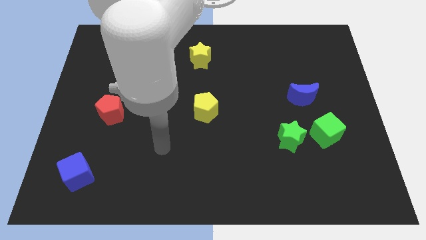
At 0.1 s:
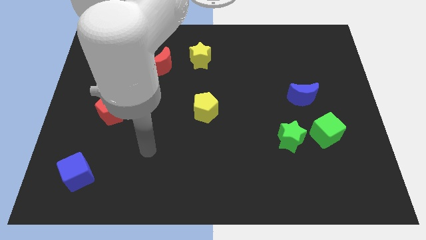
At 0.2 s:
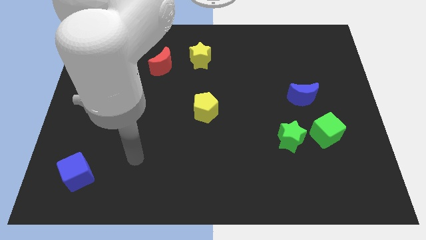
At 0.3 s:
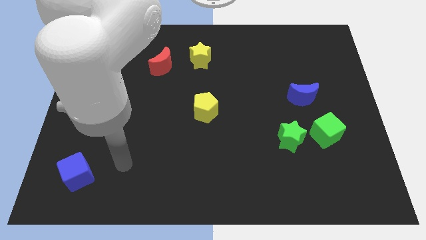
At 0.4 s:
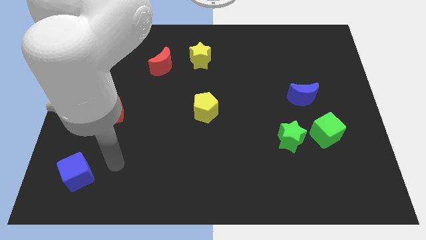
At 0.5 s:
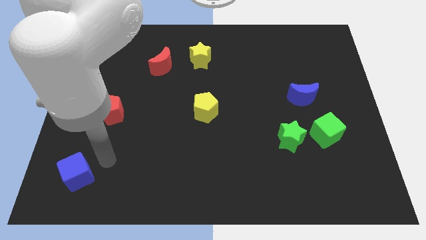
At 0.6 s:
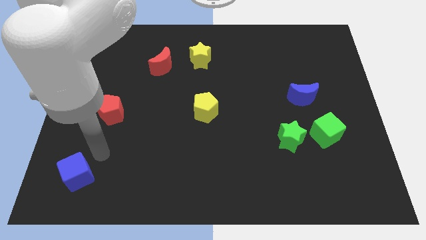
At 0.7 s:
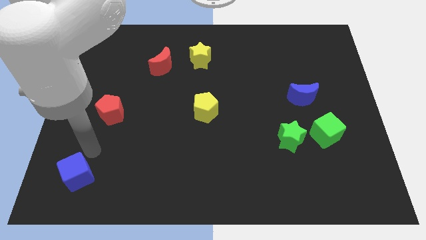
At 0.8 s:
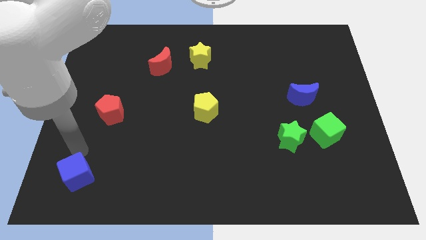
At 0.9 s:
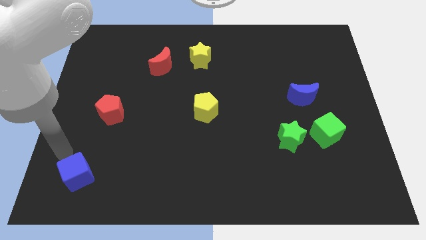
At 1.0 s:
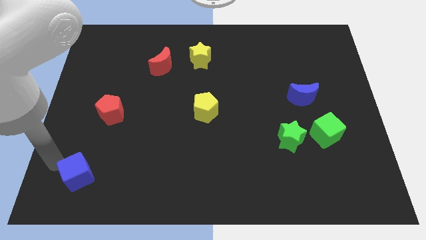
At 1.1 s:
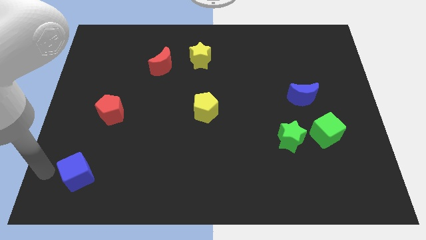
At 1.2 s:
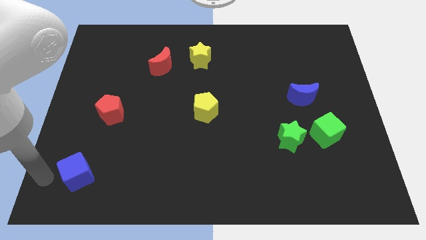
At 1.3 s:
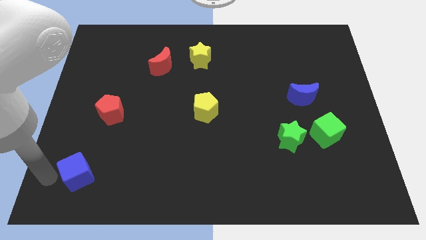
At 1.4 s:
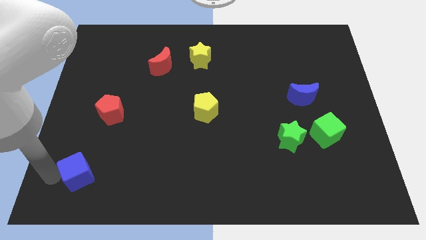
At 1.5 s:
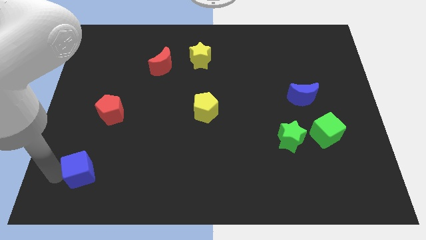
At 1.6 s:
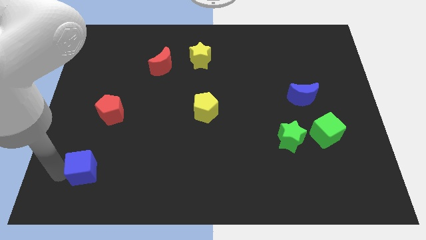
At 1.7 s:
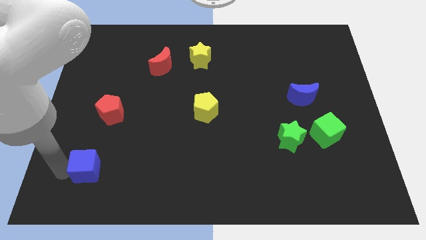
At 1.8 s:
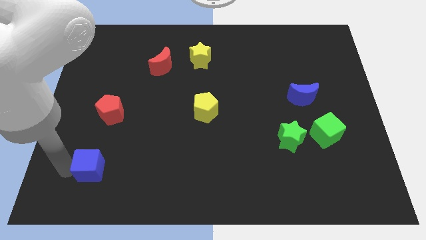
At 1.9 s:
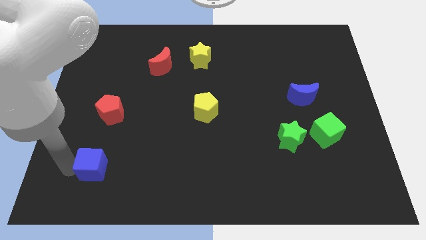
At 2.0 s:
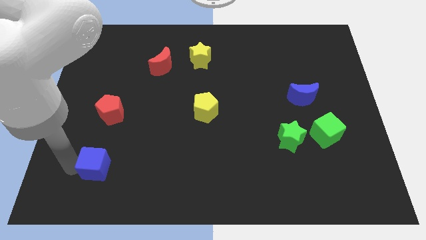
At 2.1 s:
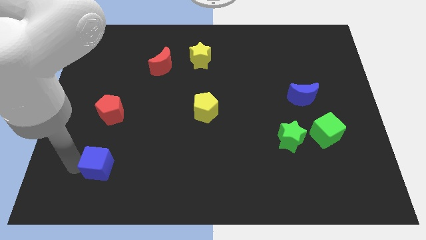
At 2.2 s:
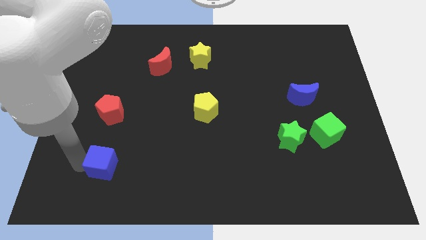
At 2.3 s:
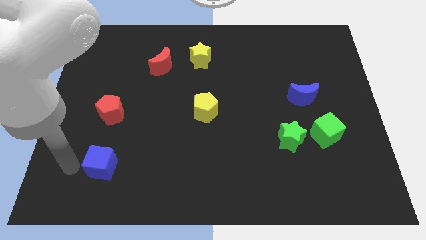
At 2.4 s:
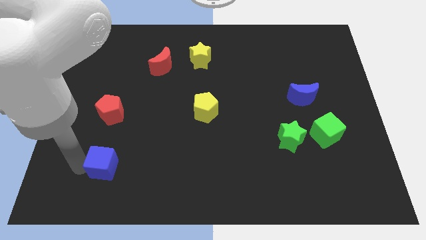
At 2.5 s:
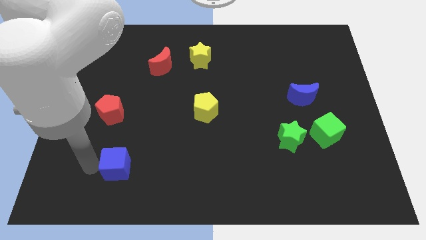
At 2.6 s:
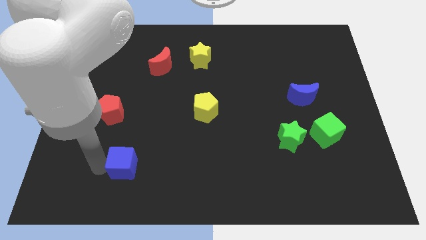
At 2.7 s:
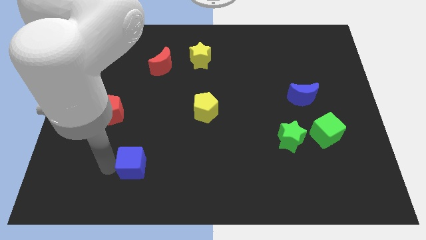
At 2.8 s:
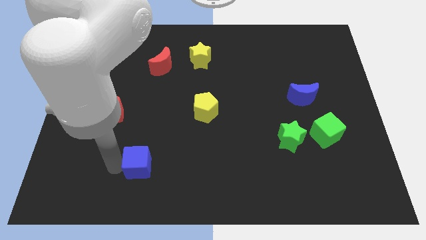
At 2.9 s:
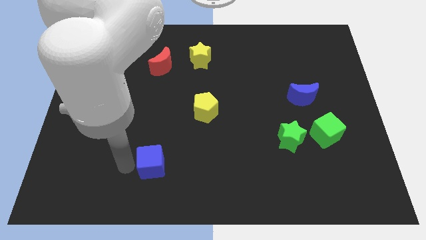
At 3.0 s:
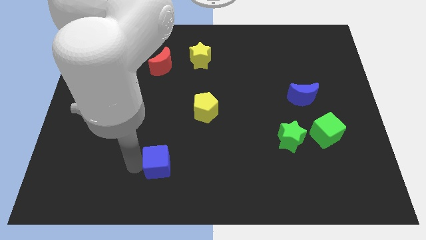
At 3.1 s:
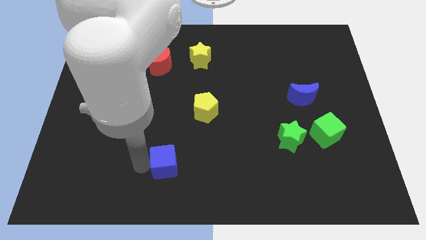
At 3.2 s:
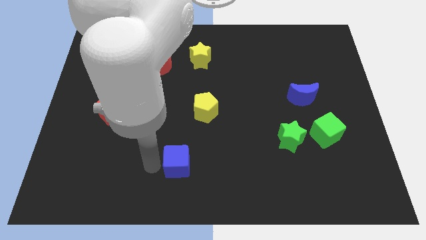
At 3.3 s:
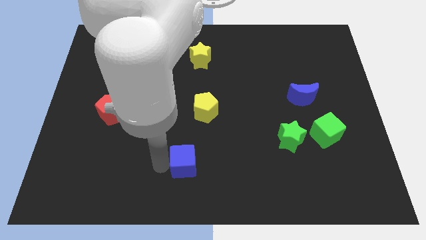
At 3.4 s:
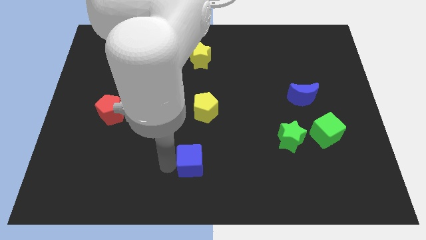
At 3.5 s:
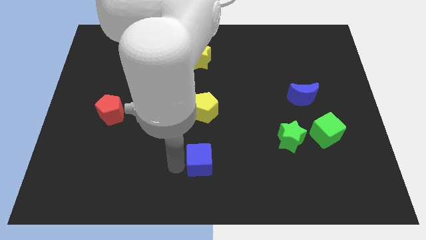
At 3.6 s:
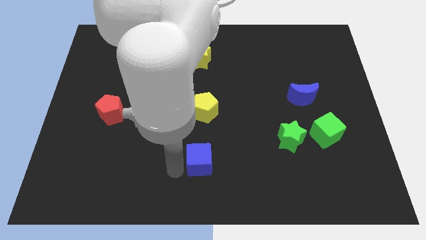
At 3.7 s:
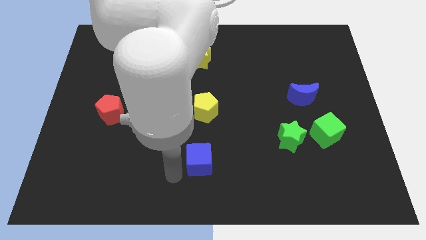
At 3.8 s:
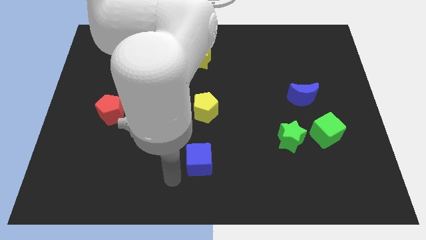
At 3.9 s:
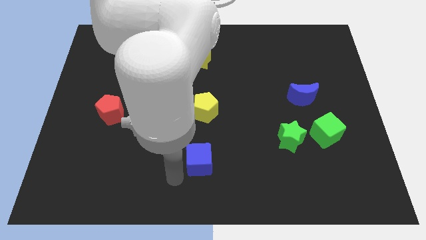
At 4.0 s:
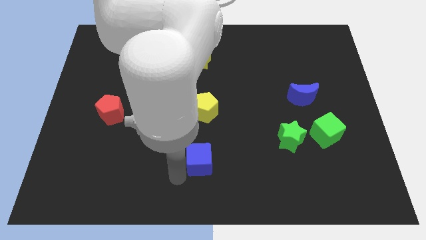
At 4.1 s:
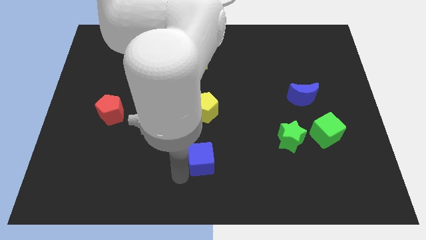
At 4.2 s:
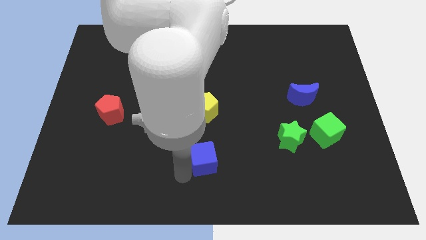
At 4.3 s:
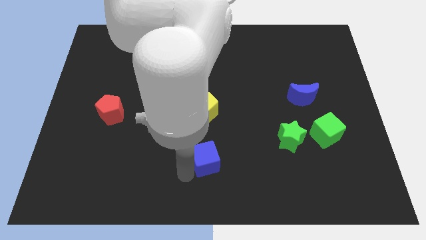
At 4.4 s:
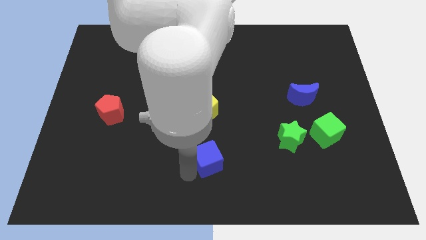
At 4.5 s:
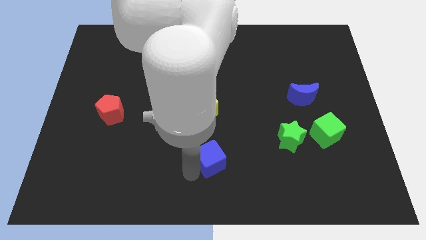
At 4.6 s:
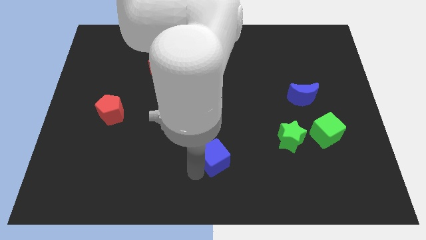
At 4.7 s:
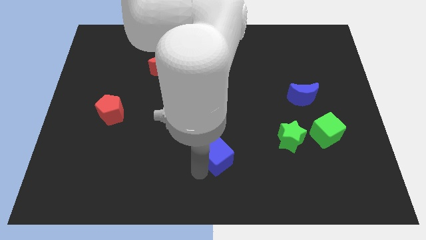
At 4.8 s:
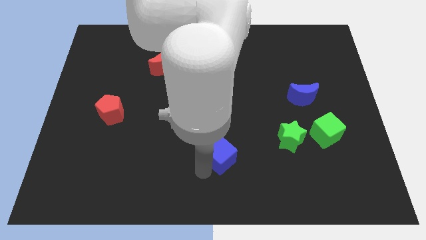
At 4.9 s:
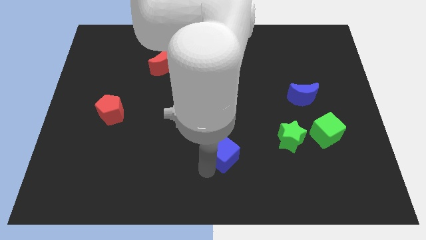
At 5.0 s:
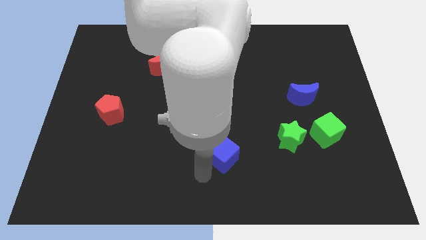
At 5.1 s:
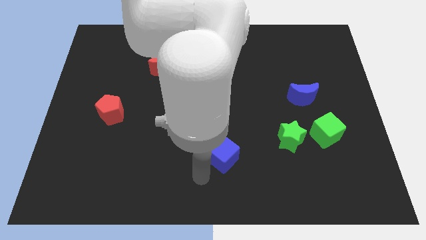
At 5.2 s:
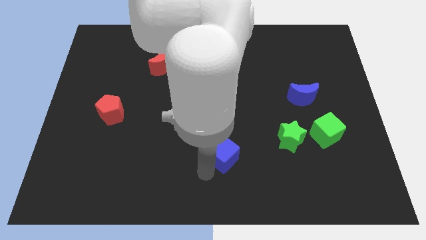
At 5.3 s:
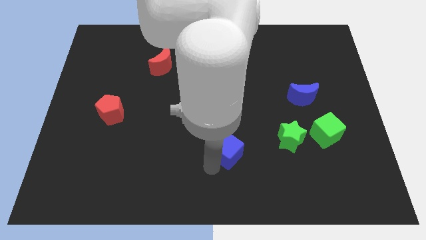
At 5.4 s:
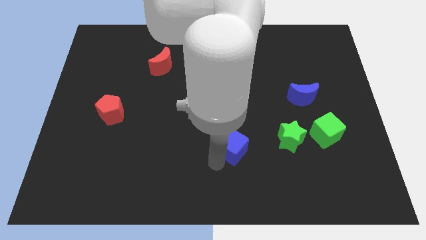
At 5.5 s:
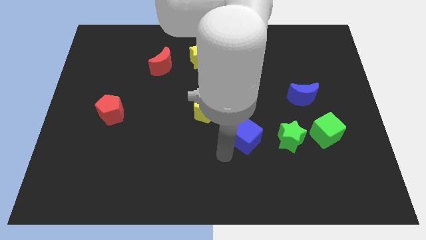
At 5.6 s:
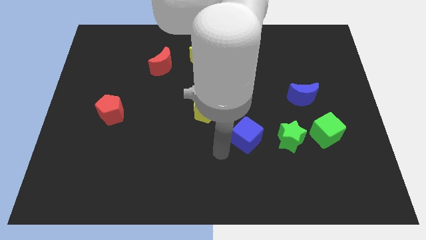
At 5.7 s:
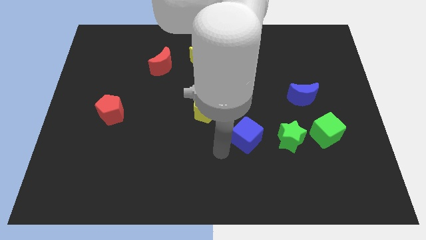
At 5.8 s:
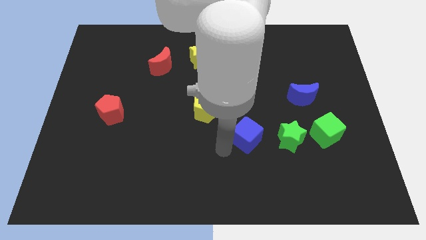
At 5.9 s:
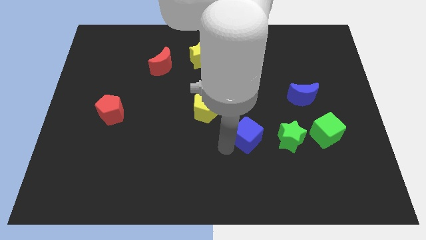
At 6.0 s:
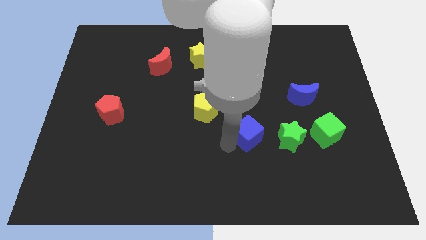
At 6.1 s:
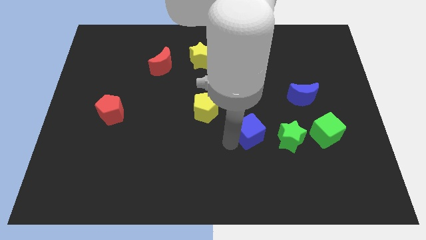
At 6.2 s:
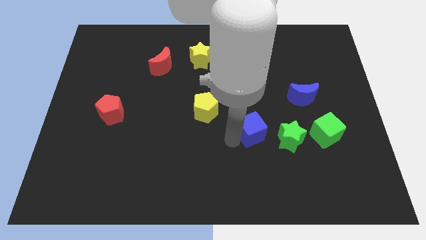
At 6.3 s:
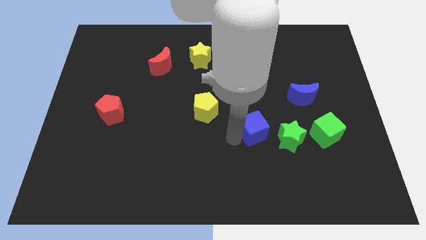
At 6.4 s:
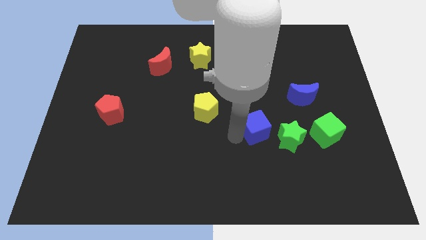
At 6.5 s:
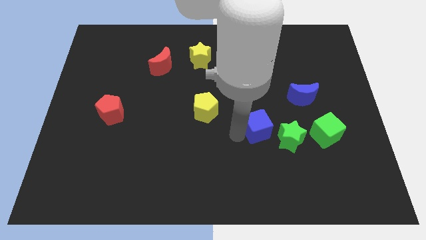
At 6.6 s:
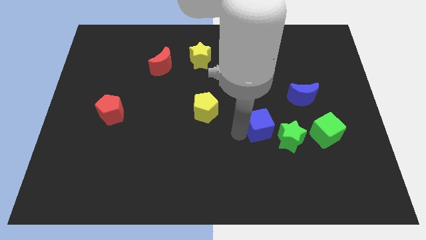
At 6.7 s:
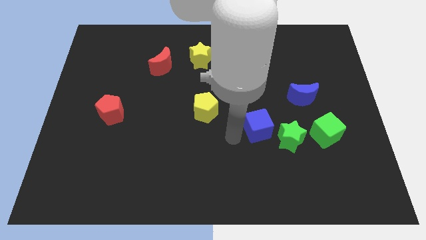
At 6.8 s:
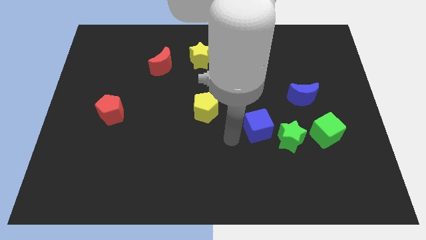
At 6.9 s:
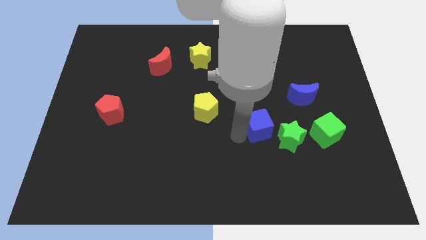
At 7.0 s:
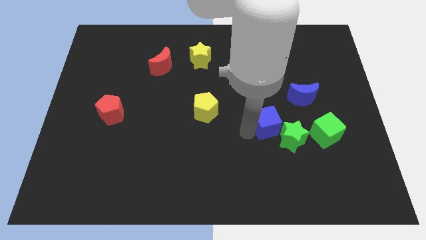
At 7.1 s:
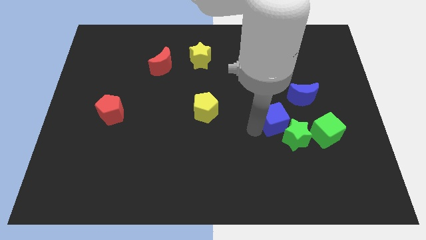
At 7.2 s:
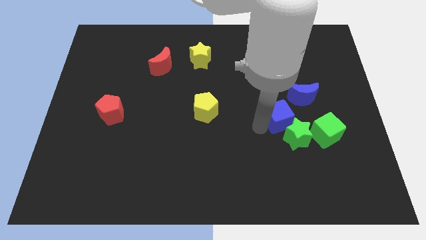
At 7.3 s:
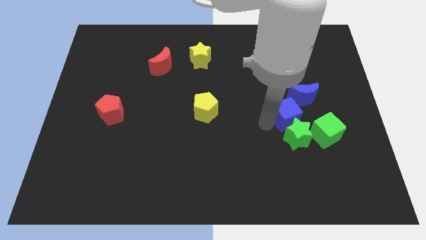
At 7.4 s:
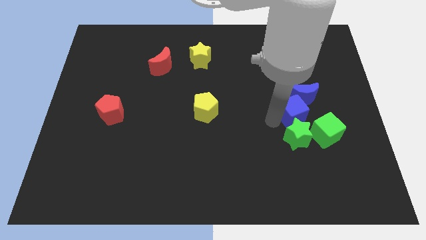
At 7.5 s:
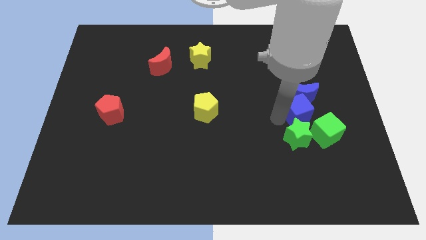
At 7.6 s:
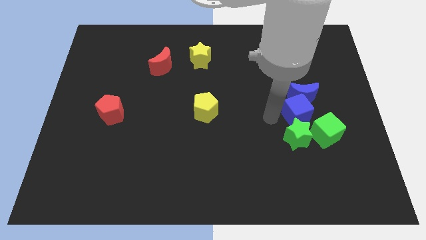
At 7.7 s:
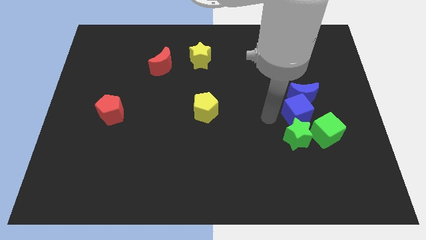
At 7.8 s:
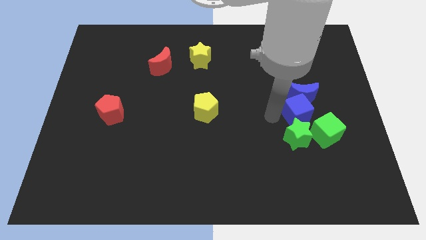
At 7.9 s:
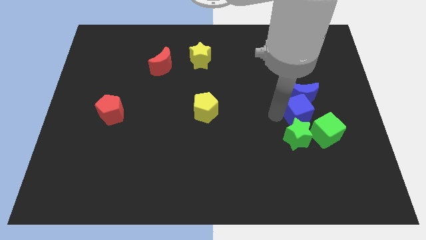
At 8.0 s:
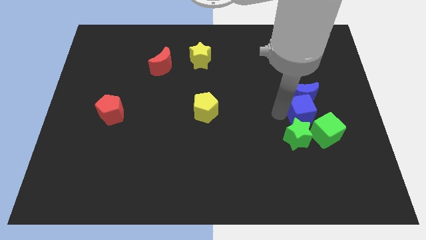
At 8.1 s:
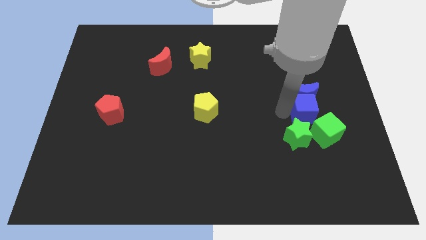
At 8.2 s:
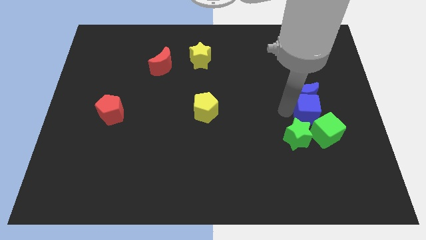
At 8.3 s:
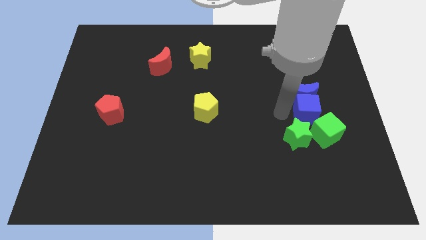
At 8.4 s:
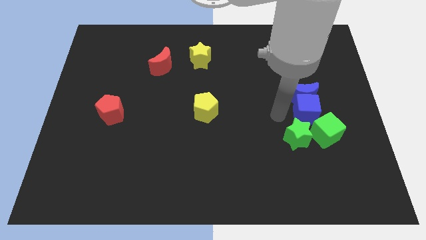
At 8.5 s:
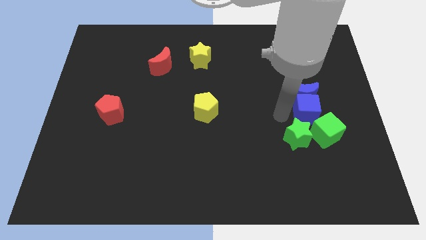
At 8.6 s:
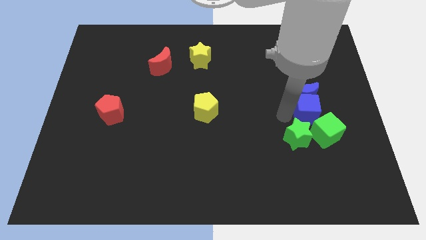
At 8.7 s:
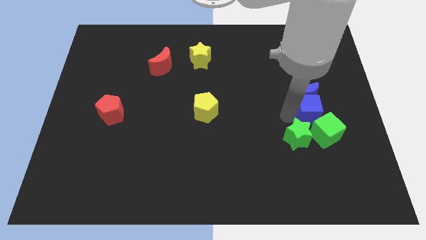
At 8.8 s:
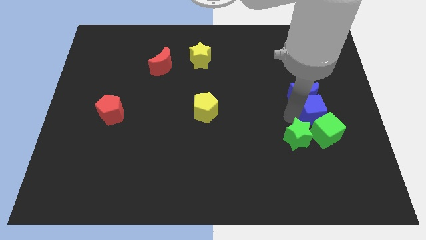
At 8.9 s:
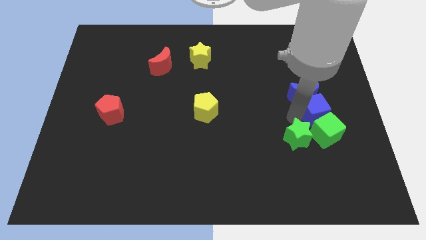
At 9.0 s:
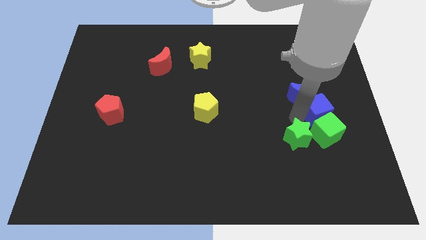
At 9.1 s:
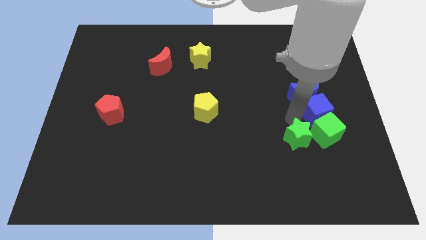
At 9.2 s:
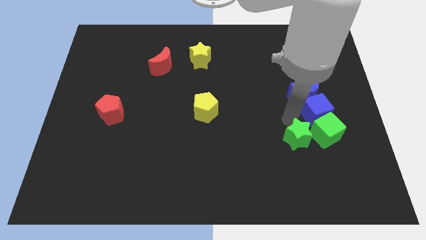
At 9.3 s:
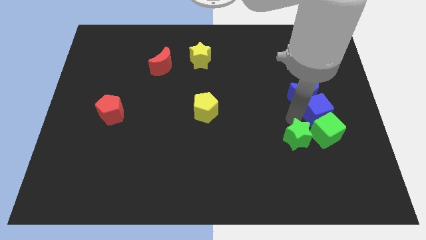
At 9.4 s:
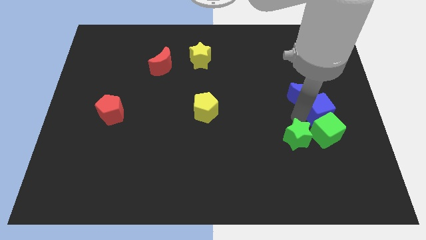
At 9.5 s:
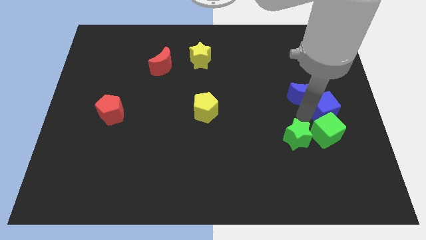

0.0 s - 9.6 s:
move the blue cube to the right side
